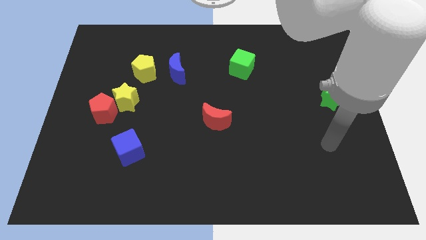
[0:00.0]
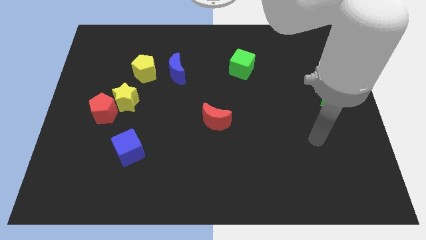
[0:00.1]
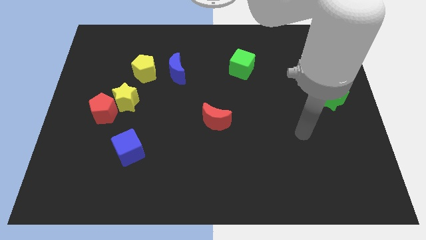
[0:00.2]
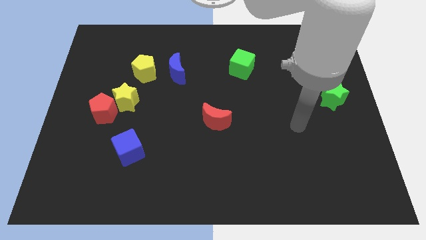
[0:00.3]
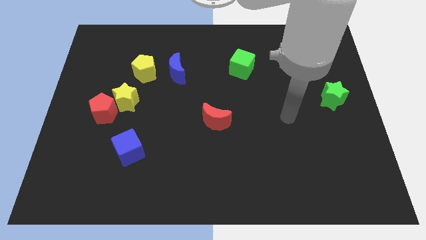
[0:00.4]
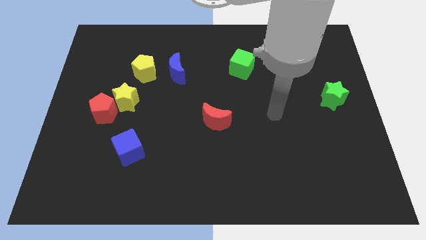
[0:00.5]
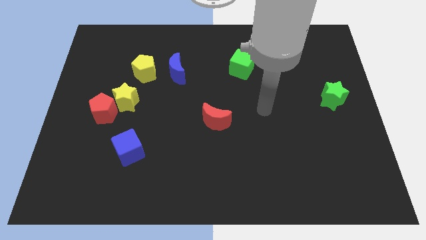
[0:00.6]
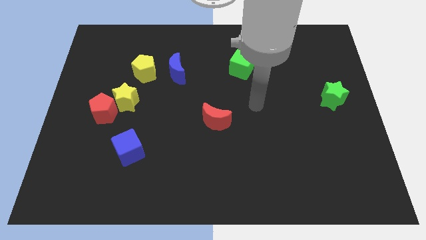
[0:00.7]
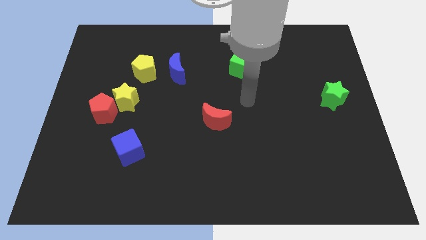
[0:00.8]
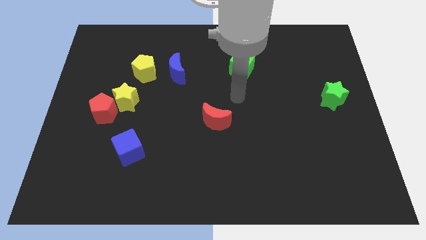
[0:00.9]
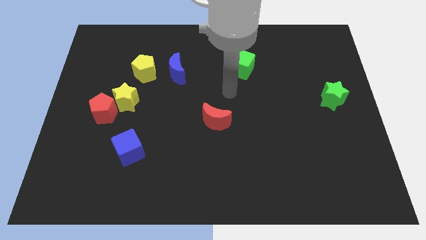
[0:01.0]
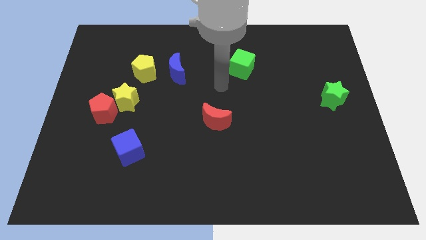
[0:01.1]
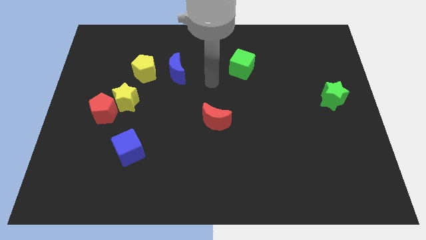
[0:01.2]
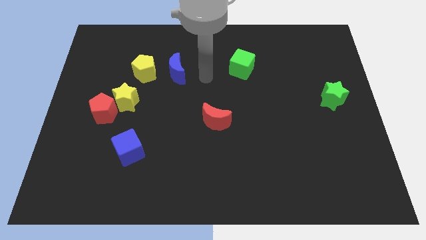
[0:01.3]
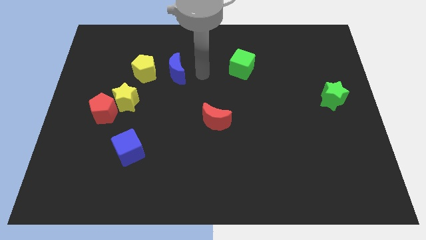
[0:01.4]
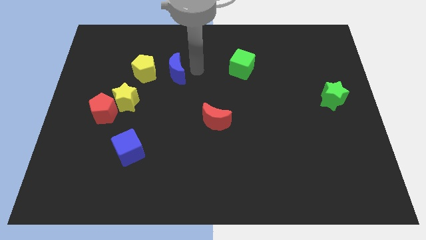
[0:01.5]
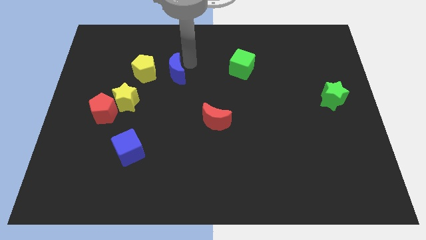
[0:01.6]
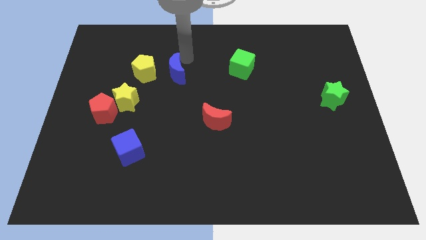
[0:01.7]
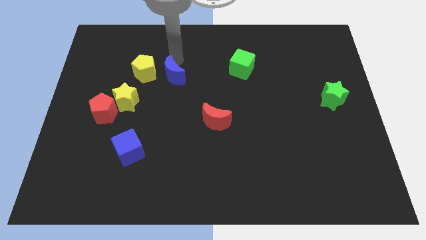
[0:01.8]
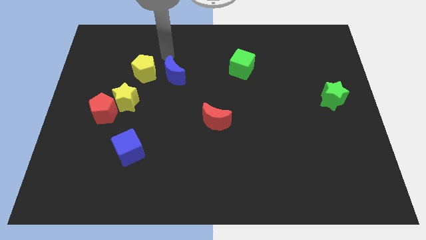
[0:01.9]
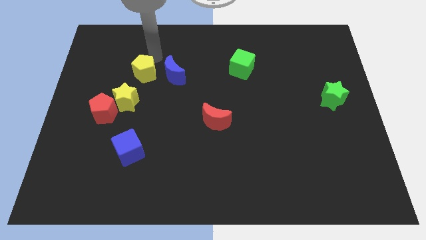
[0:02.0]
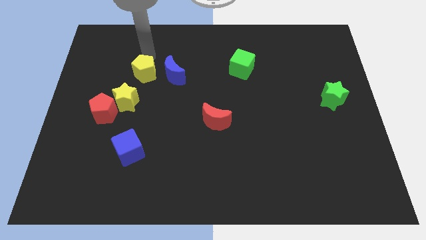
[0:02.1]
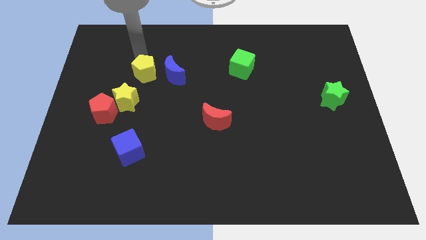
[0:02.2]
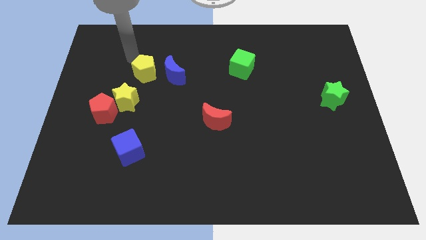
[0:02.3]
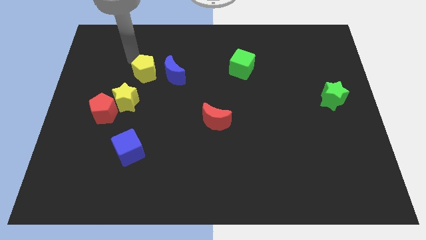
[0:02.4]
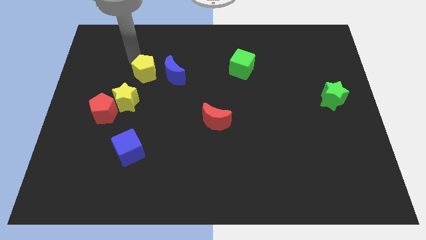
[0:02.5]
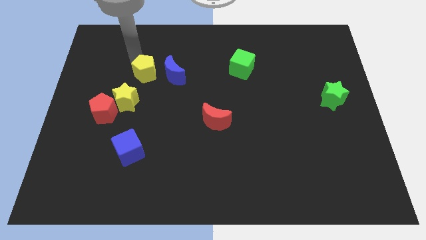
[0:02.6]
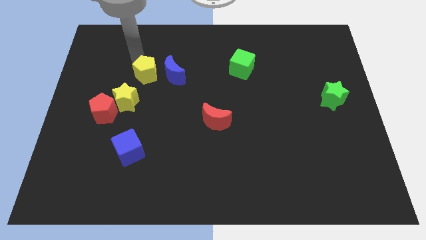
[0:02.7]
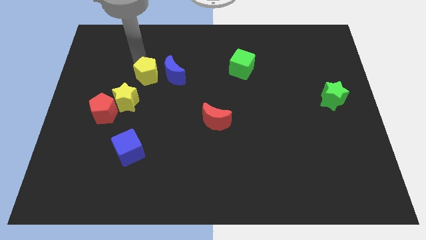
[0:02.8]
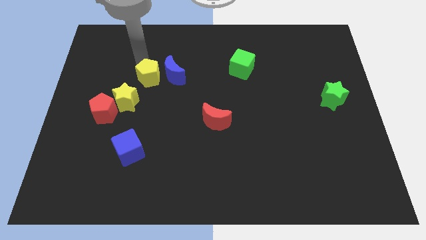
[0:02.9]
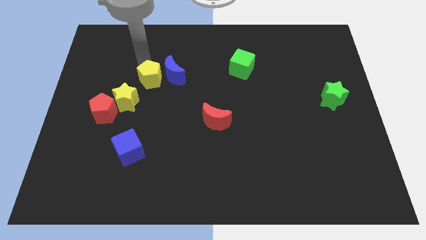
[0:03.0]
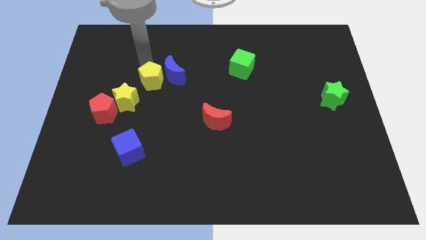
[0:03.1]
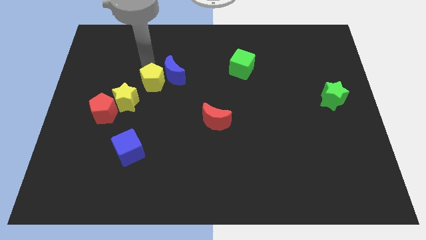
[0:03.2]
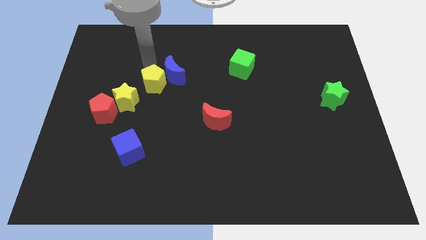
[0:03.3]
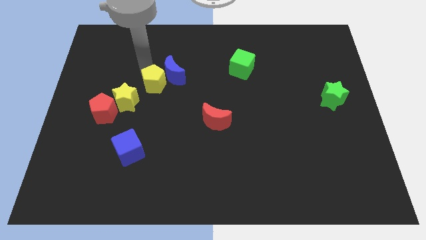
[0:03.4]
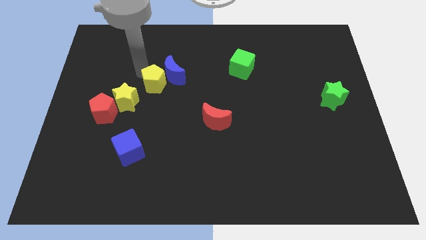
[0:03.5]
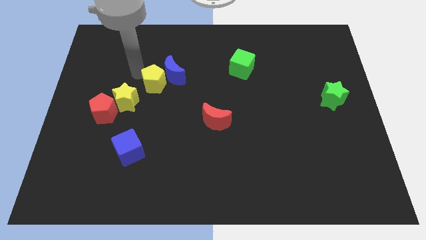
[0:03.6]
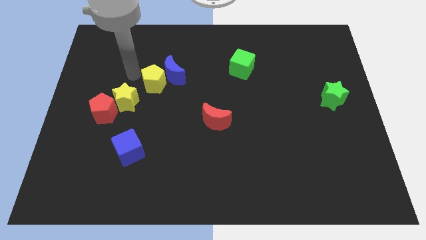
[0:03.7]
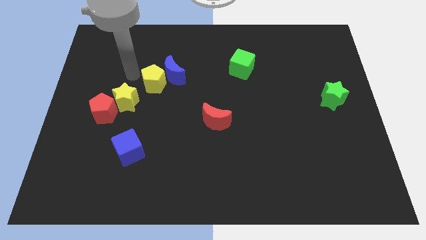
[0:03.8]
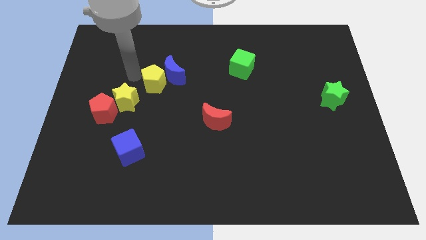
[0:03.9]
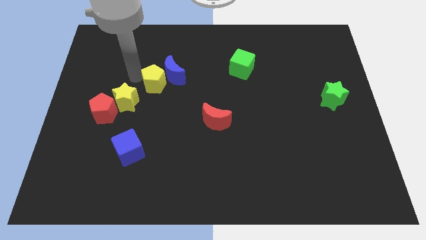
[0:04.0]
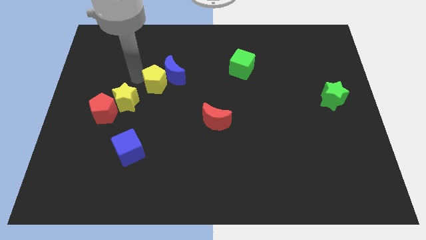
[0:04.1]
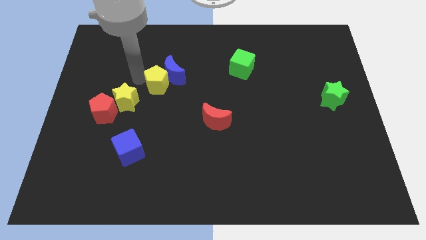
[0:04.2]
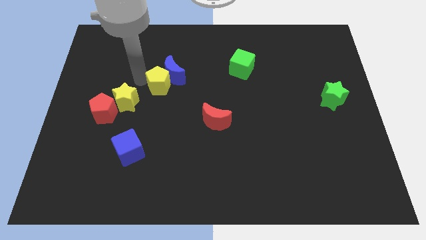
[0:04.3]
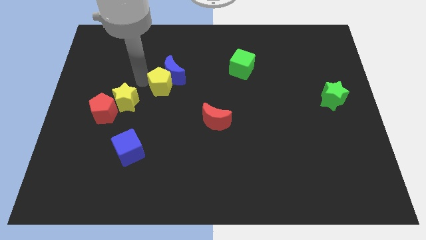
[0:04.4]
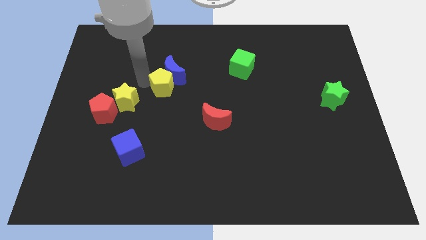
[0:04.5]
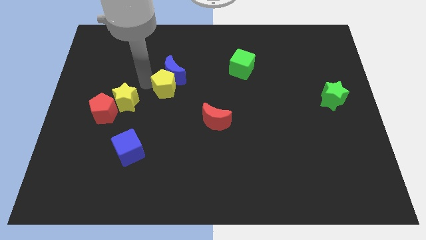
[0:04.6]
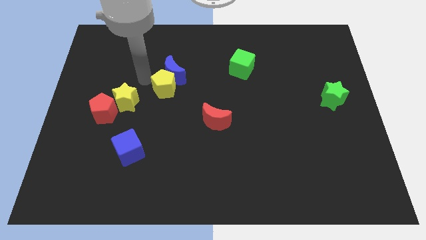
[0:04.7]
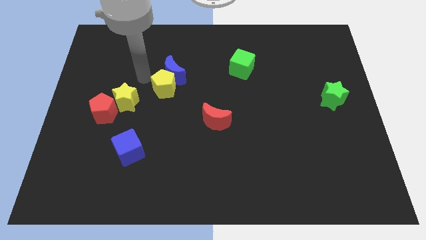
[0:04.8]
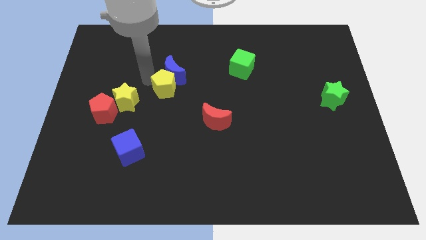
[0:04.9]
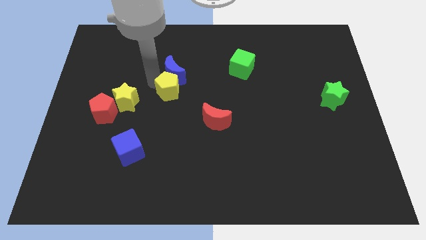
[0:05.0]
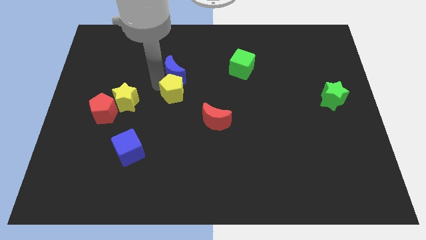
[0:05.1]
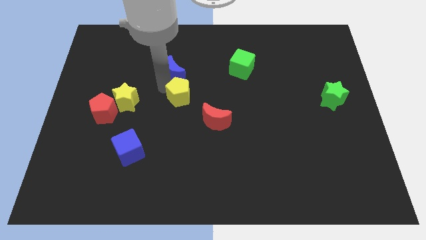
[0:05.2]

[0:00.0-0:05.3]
slide the yellow pentagon to the top left of the red moon

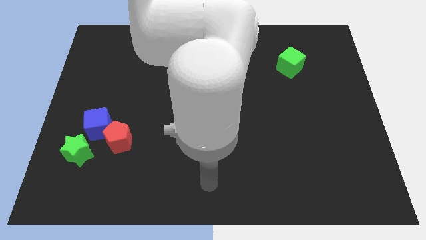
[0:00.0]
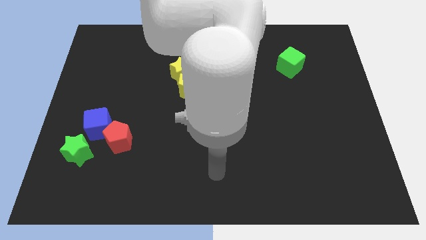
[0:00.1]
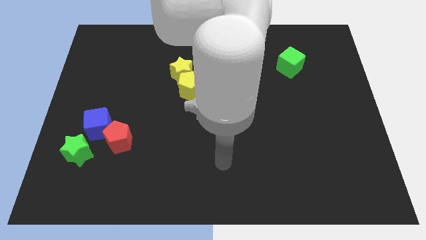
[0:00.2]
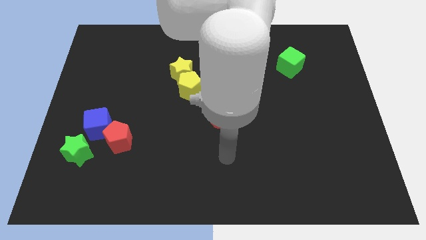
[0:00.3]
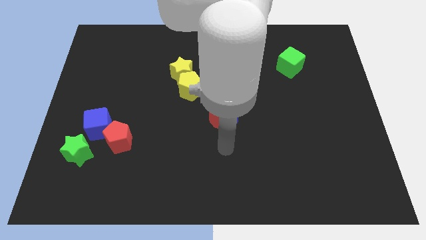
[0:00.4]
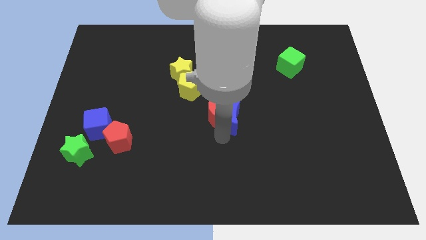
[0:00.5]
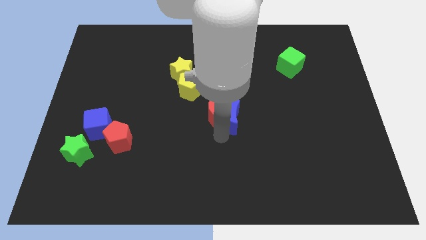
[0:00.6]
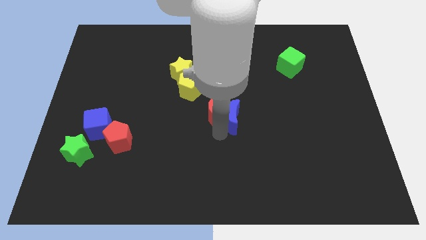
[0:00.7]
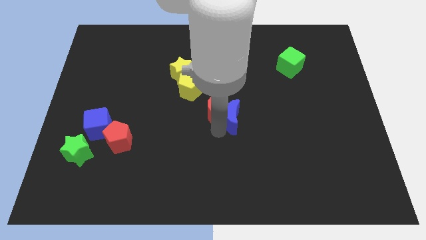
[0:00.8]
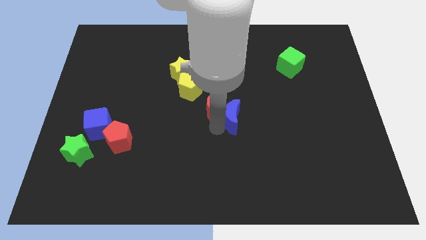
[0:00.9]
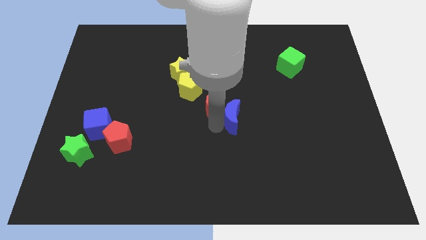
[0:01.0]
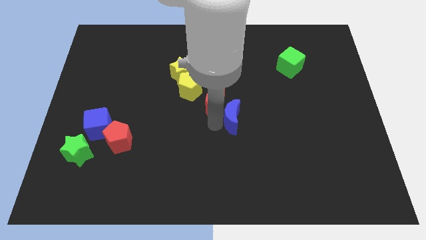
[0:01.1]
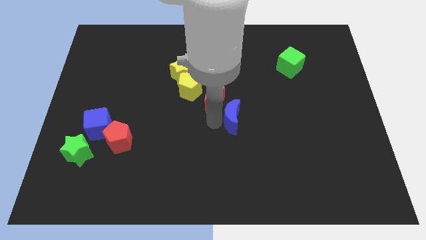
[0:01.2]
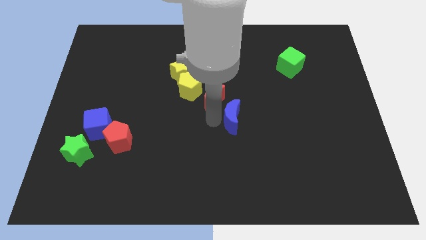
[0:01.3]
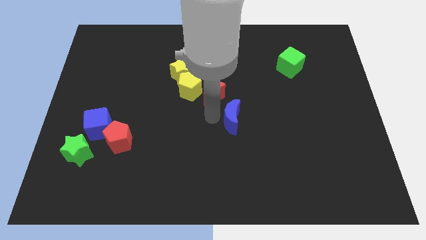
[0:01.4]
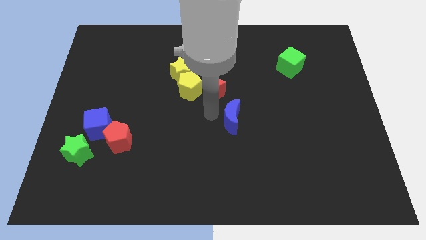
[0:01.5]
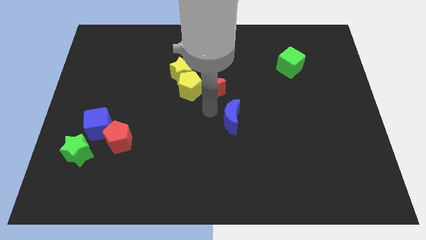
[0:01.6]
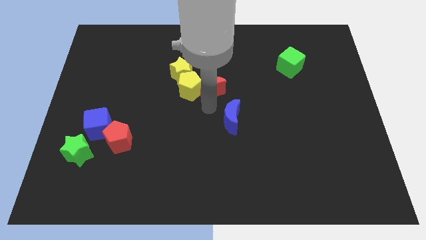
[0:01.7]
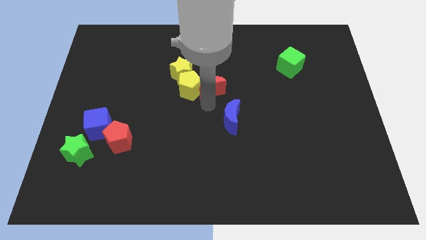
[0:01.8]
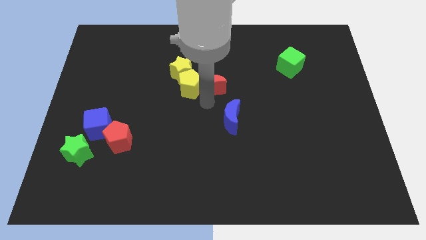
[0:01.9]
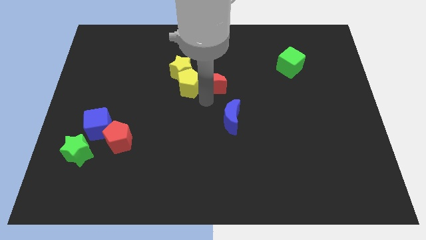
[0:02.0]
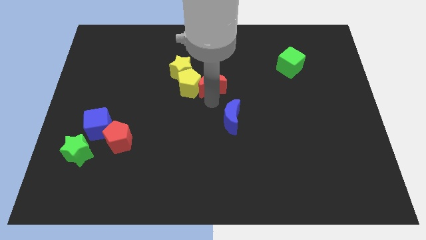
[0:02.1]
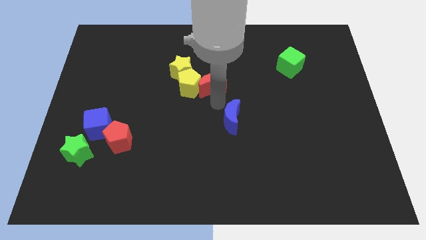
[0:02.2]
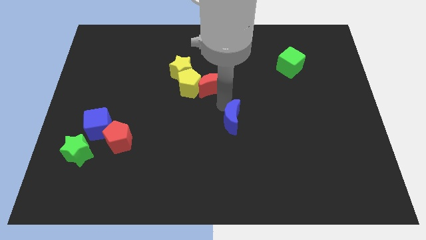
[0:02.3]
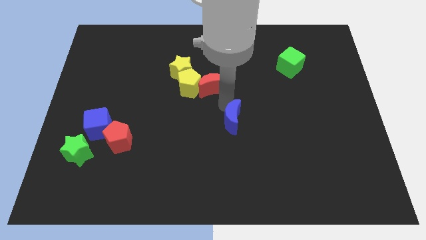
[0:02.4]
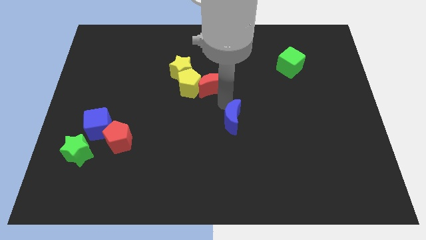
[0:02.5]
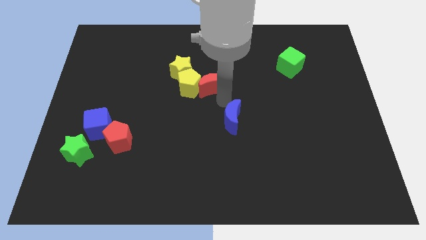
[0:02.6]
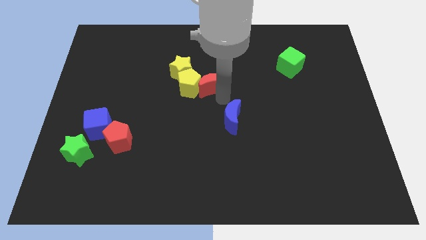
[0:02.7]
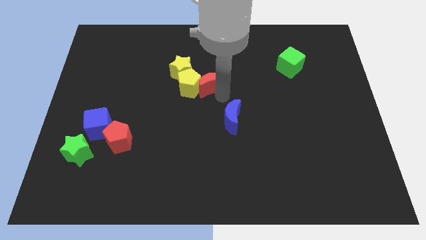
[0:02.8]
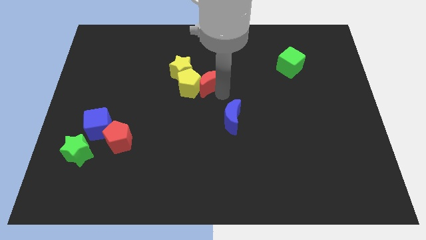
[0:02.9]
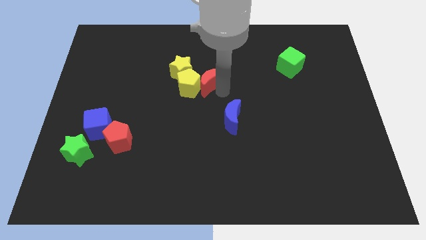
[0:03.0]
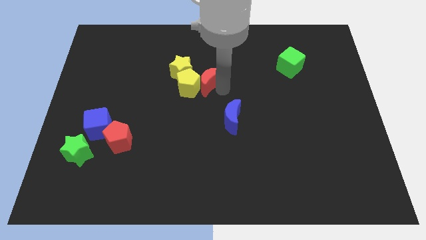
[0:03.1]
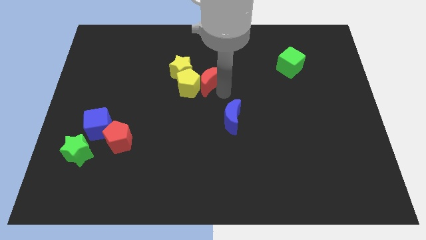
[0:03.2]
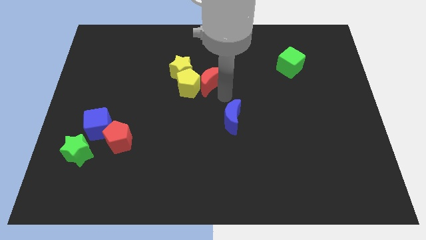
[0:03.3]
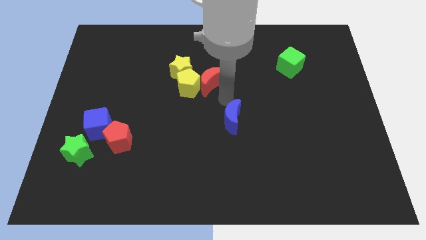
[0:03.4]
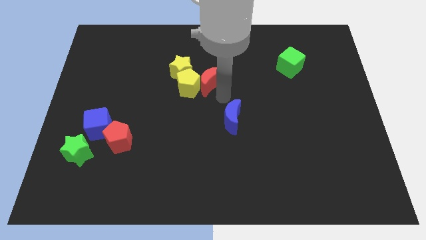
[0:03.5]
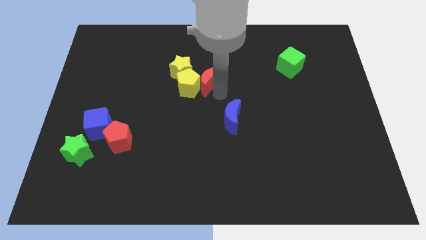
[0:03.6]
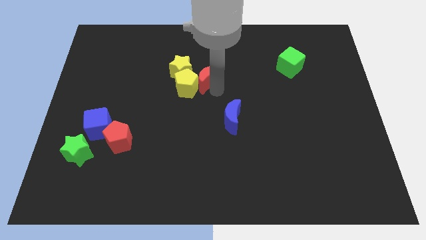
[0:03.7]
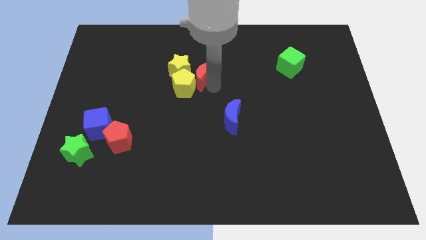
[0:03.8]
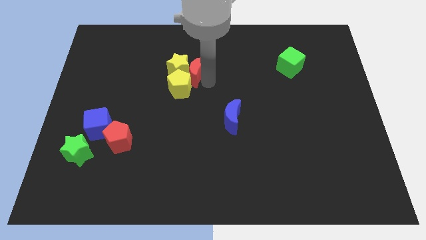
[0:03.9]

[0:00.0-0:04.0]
move the red moon above the yellow pentagon
